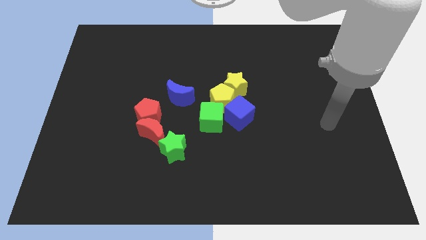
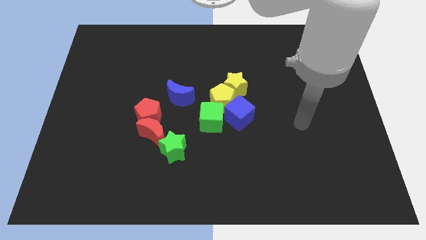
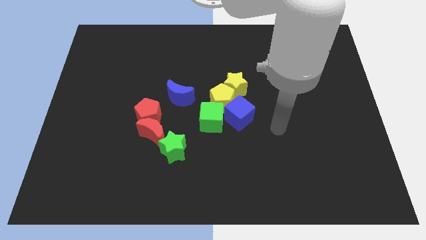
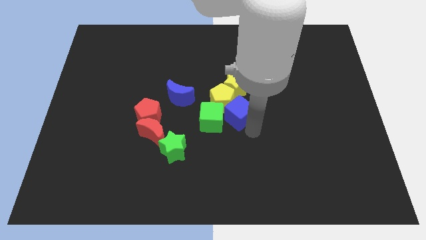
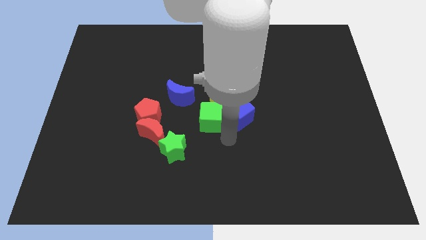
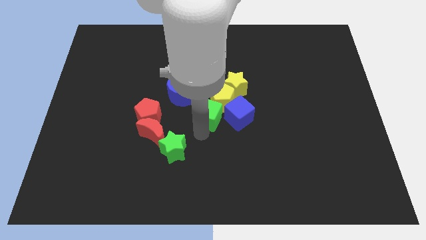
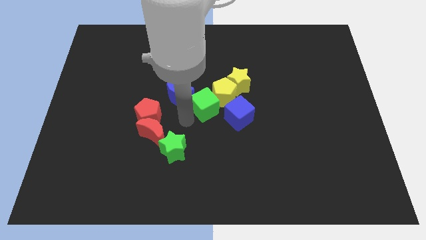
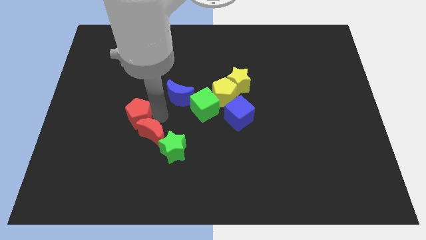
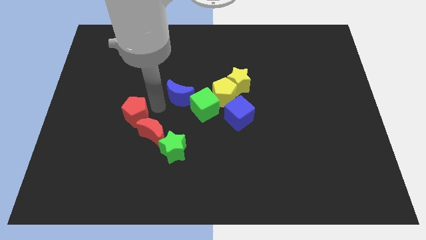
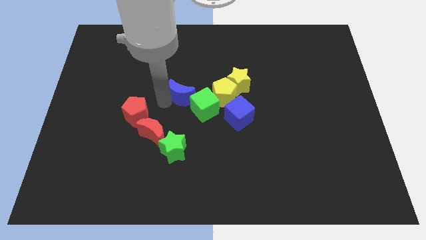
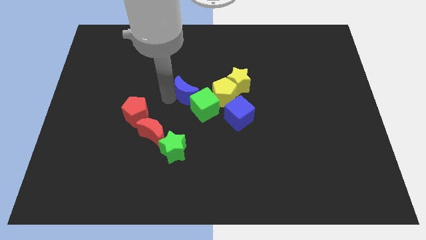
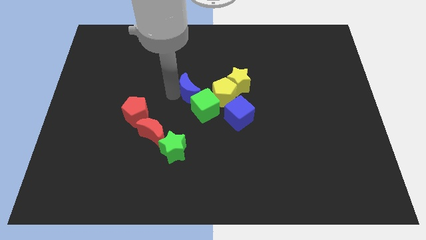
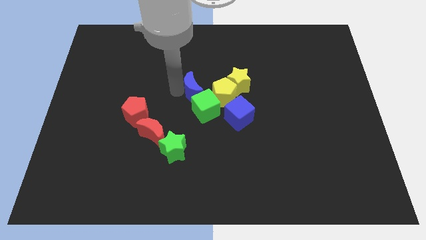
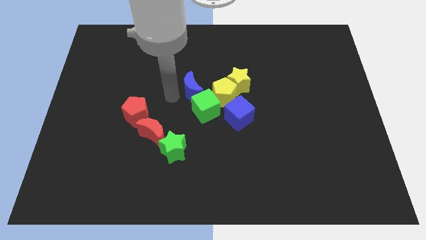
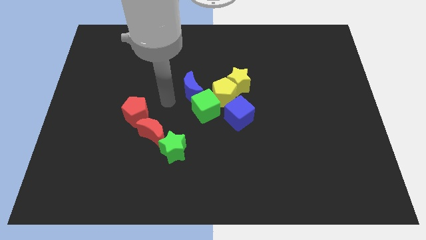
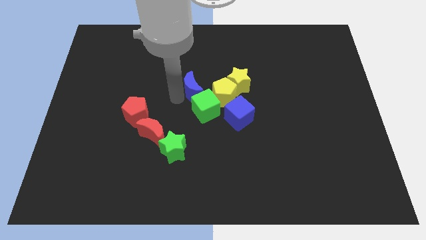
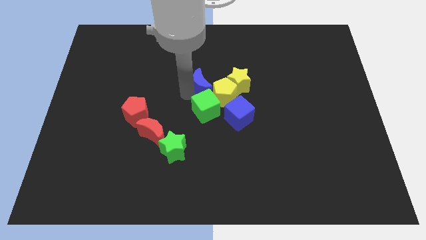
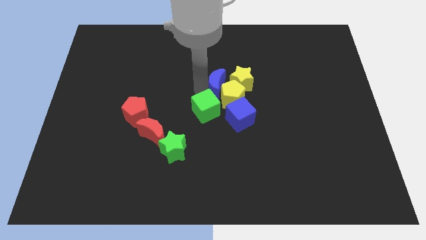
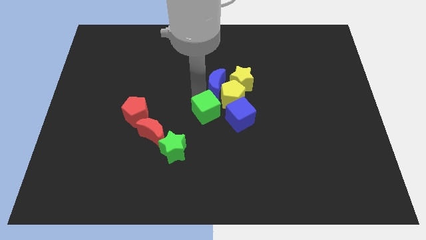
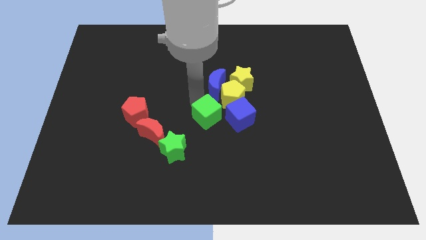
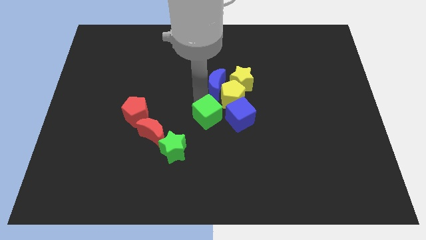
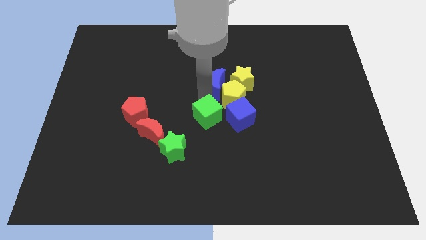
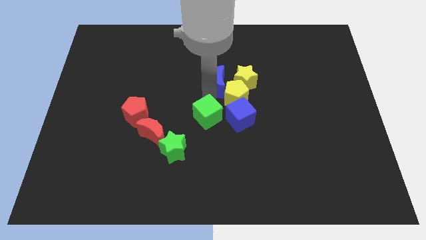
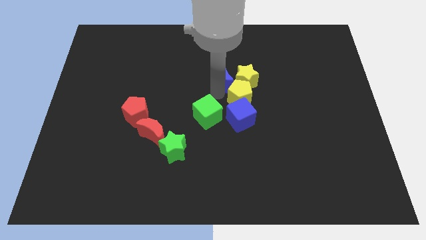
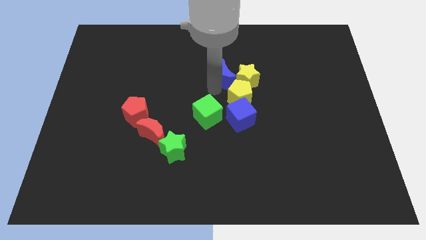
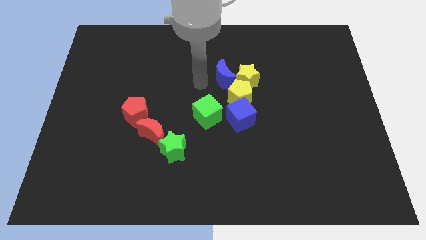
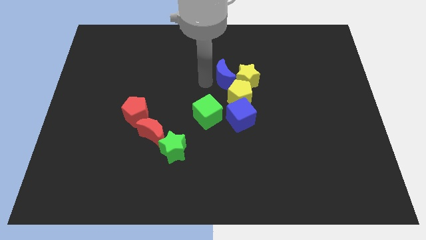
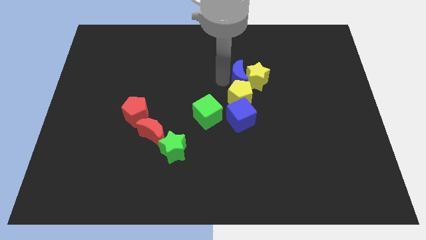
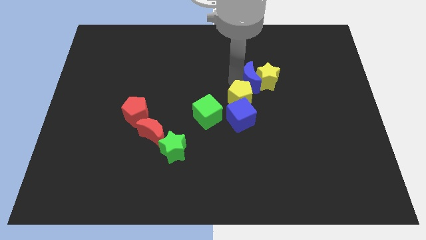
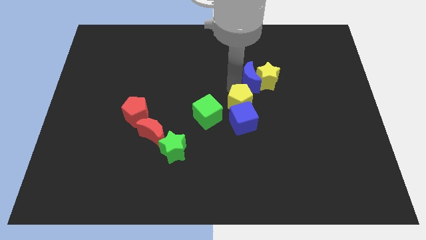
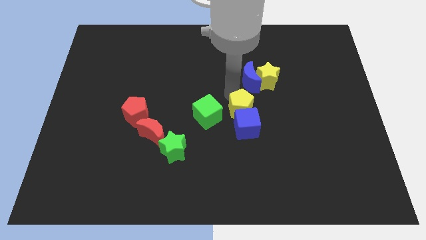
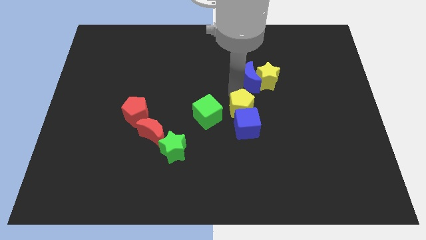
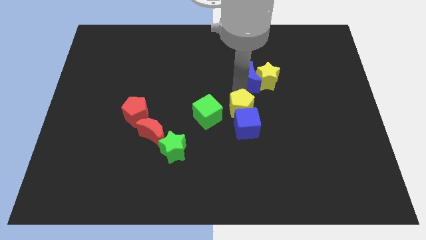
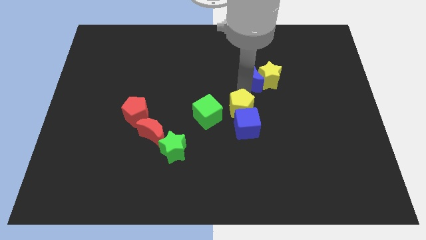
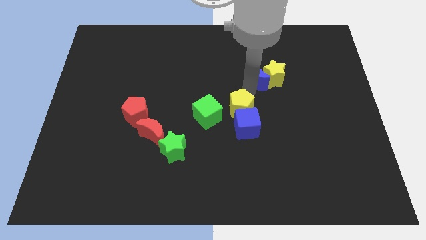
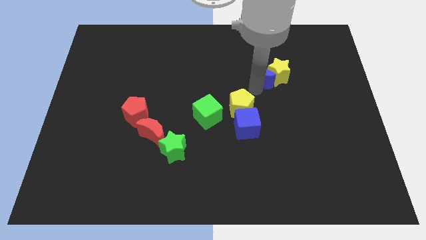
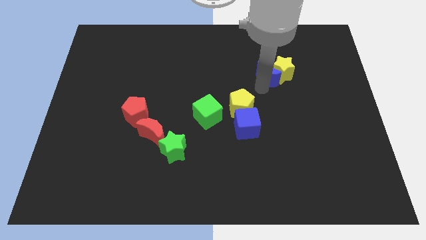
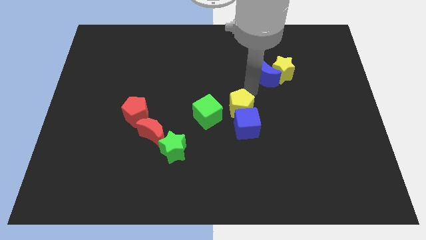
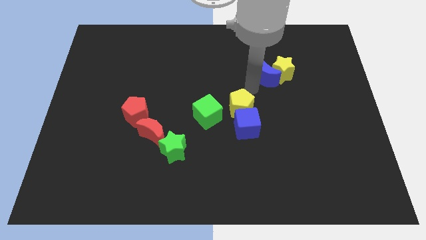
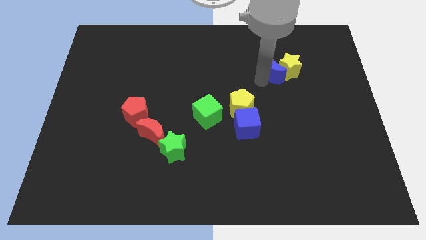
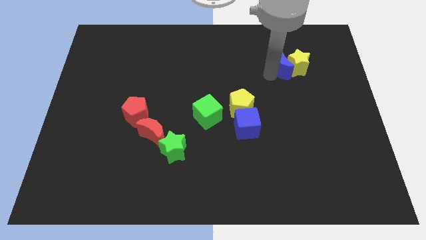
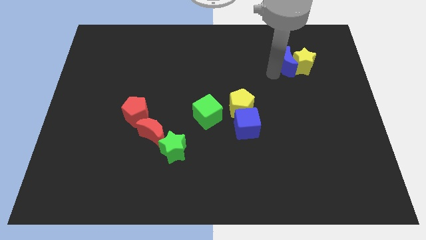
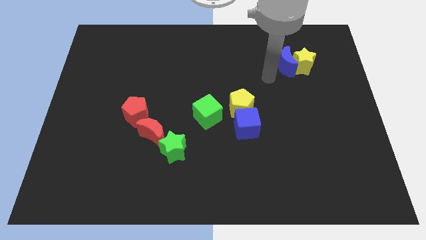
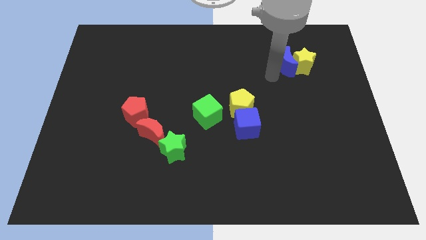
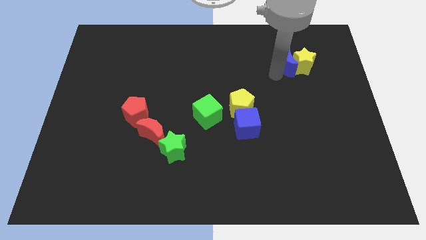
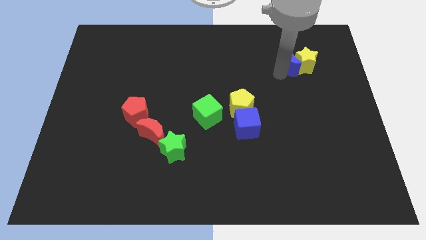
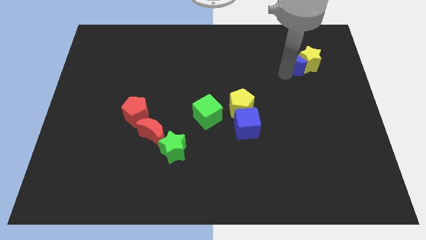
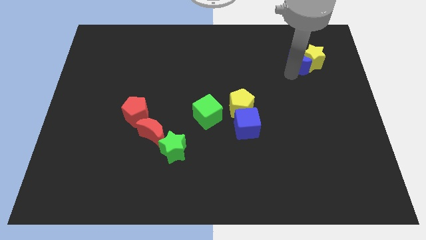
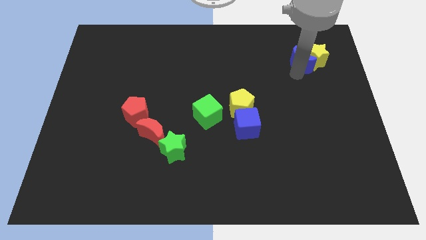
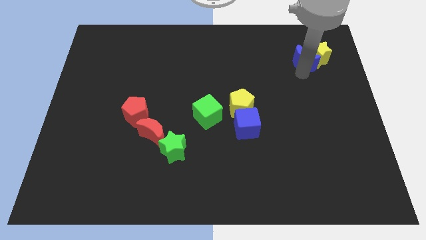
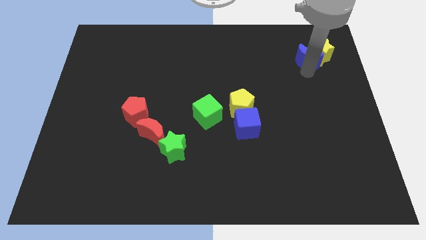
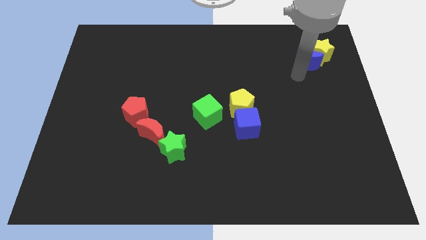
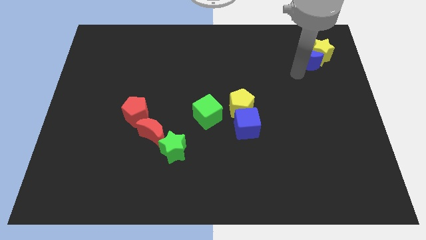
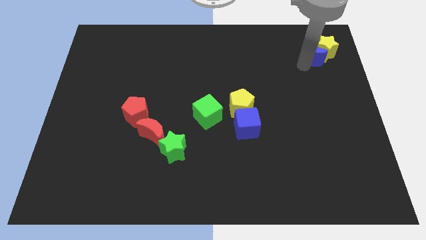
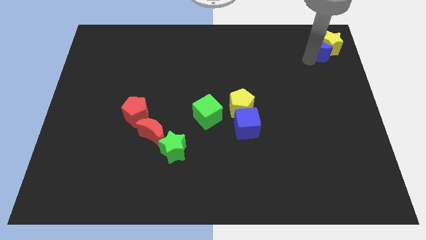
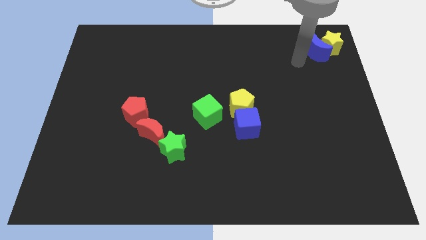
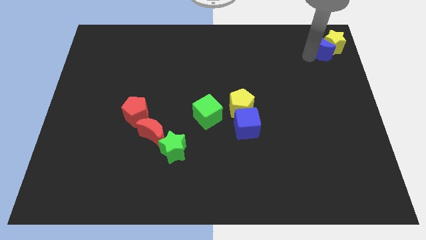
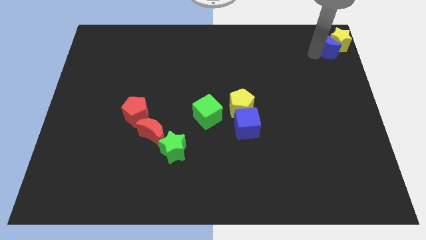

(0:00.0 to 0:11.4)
move the blue moon to the top right corner
